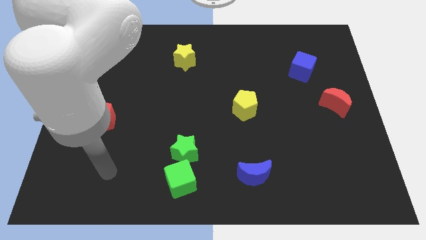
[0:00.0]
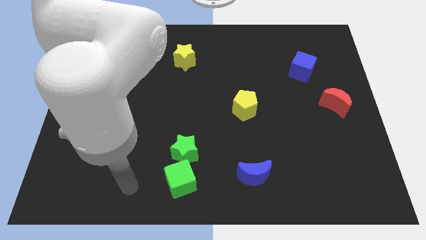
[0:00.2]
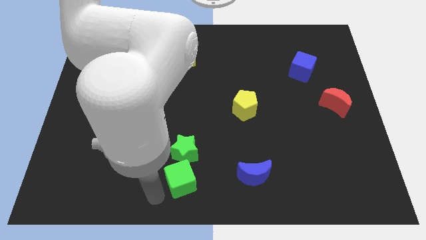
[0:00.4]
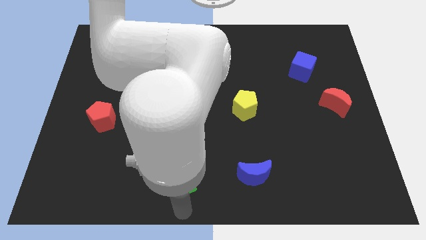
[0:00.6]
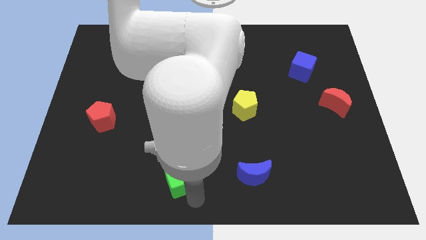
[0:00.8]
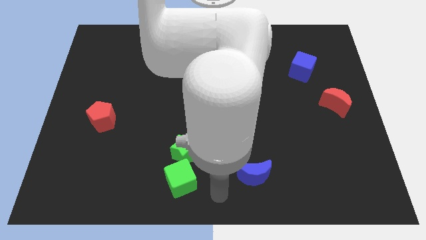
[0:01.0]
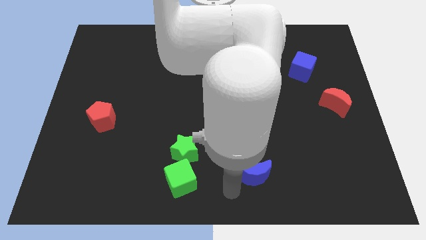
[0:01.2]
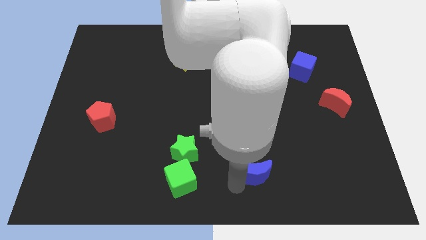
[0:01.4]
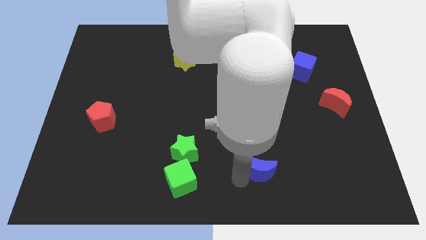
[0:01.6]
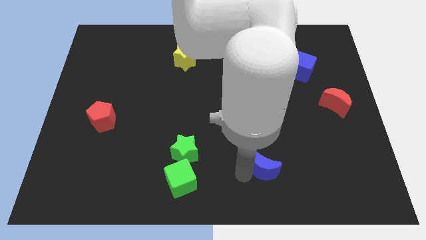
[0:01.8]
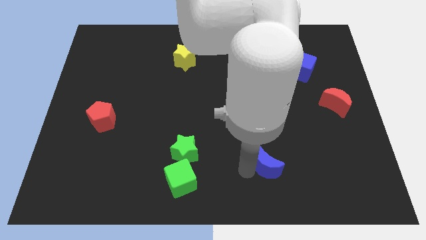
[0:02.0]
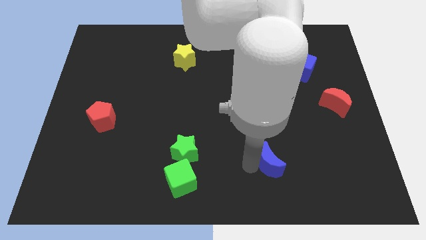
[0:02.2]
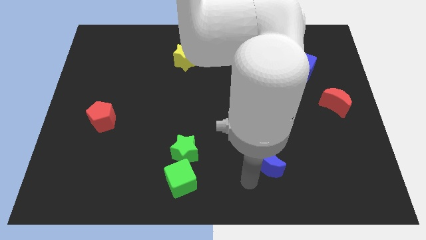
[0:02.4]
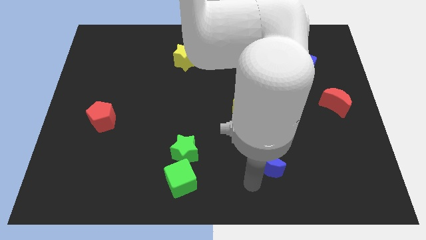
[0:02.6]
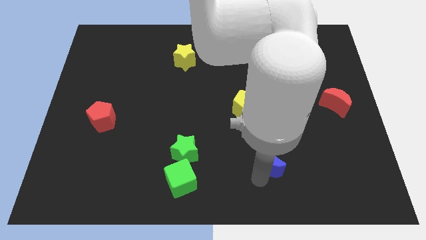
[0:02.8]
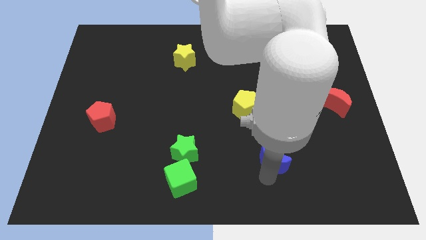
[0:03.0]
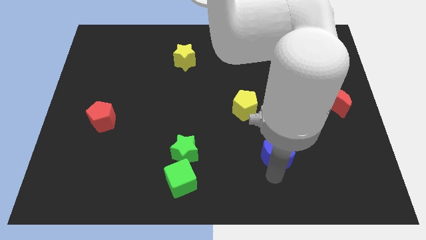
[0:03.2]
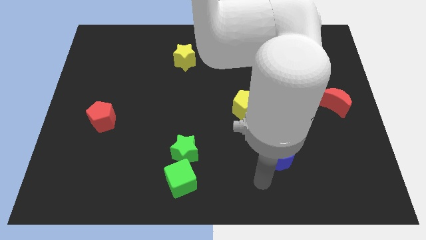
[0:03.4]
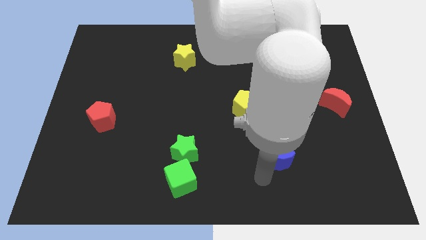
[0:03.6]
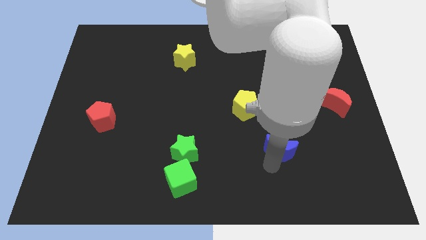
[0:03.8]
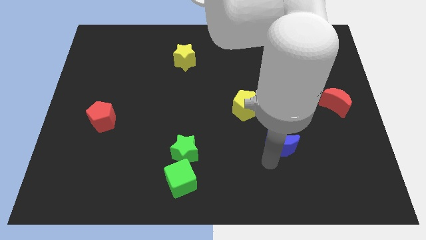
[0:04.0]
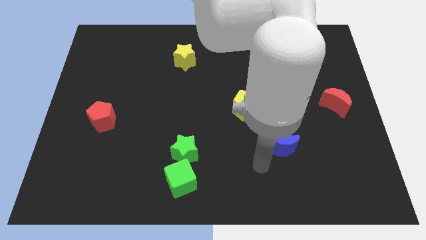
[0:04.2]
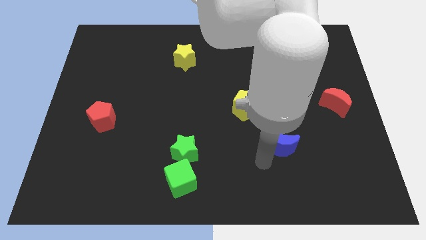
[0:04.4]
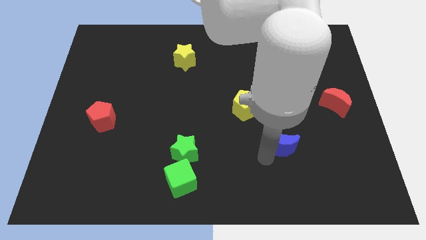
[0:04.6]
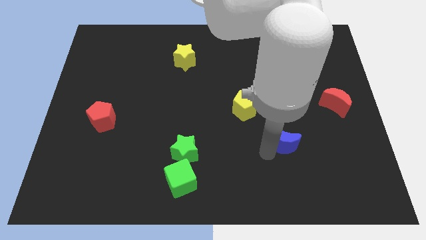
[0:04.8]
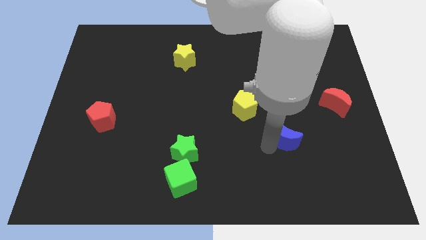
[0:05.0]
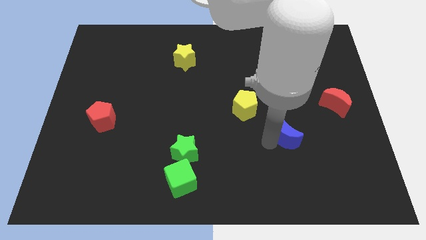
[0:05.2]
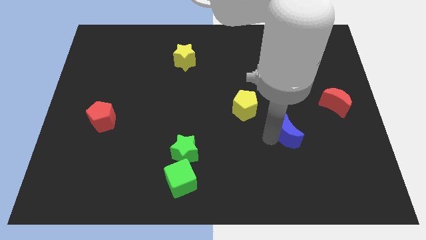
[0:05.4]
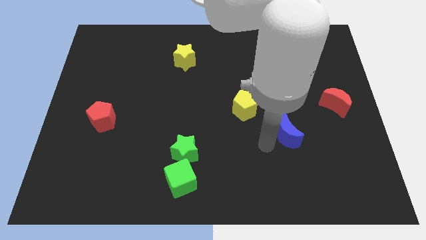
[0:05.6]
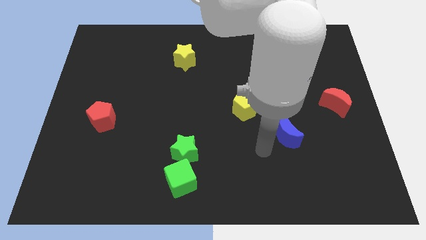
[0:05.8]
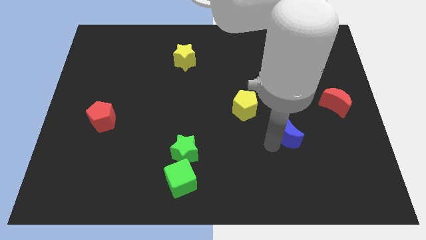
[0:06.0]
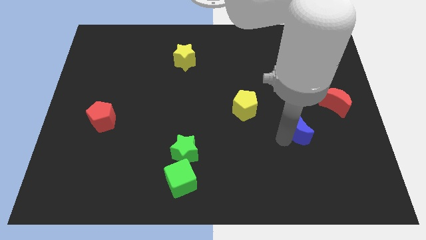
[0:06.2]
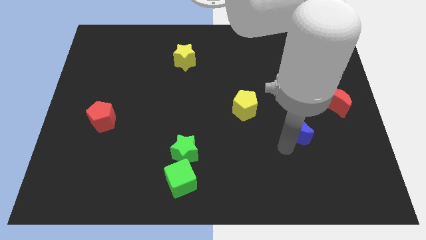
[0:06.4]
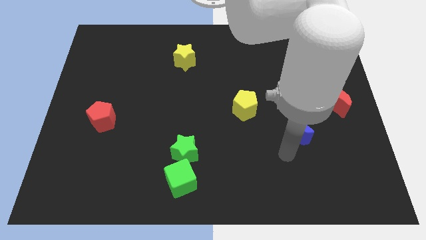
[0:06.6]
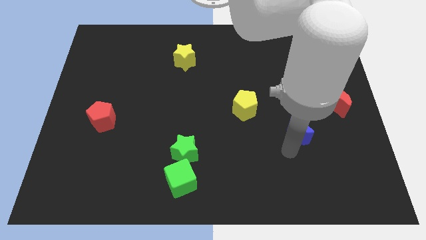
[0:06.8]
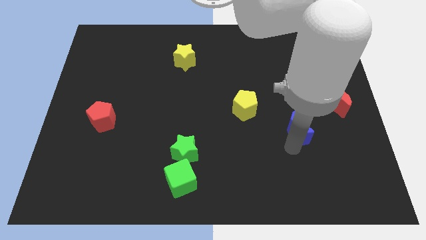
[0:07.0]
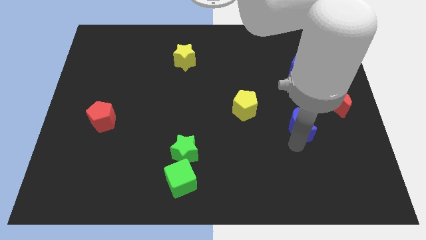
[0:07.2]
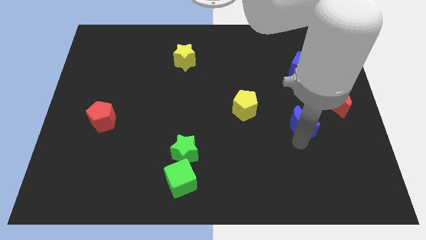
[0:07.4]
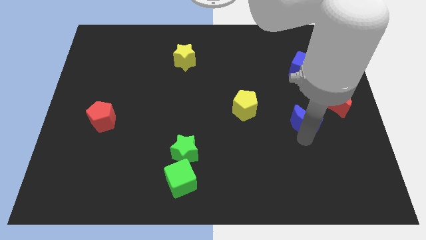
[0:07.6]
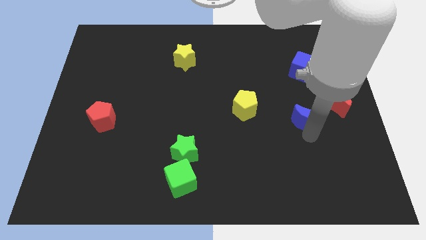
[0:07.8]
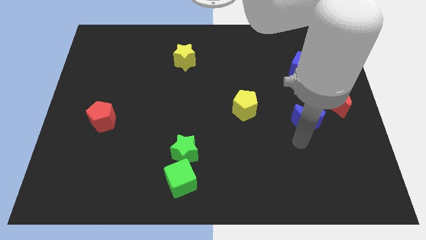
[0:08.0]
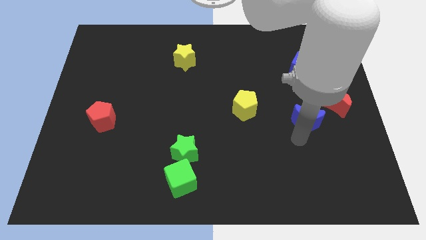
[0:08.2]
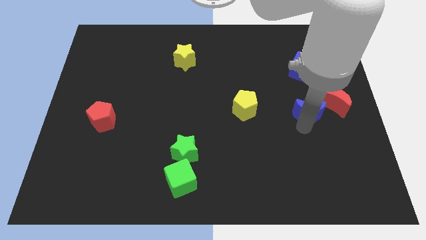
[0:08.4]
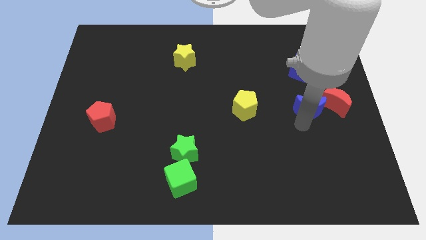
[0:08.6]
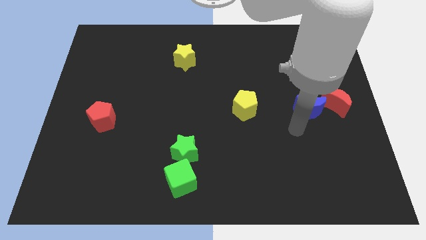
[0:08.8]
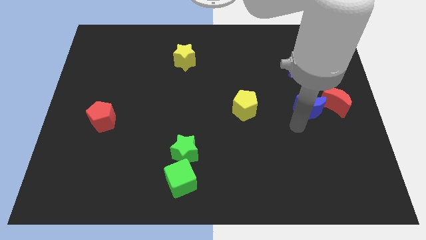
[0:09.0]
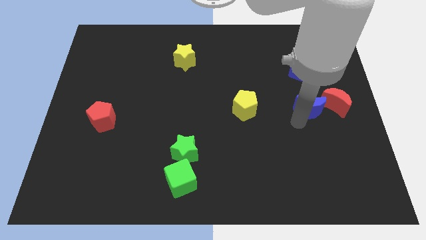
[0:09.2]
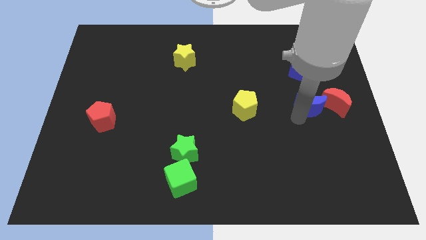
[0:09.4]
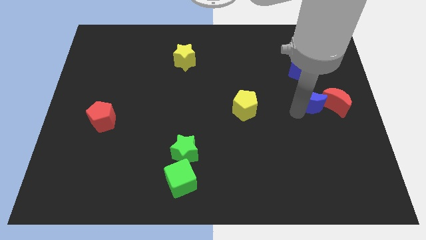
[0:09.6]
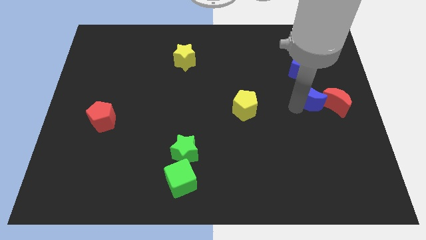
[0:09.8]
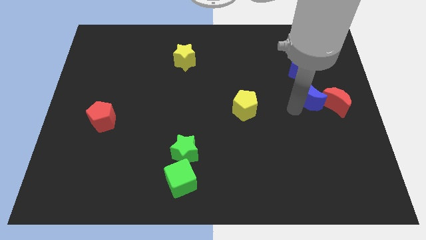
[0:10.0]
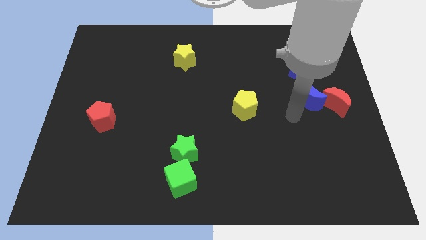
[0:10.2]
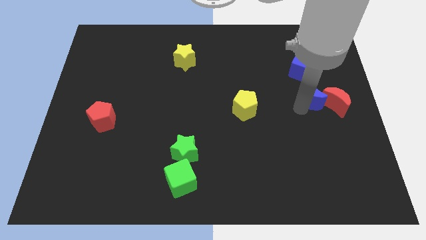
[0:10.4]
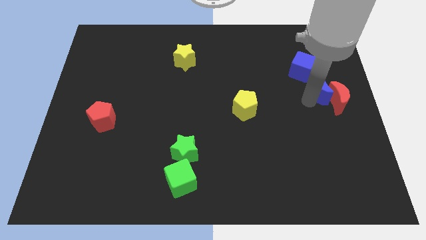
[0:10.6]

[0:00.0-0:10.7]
put the blue moon to the top of the red moon

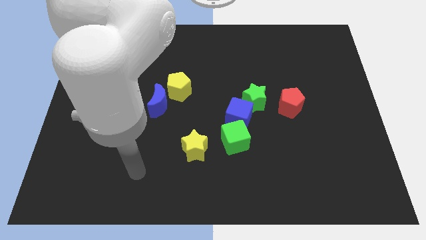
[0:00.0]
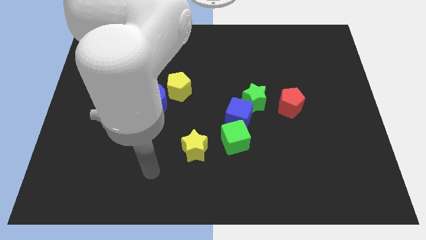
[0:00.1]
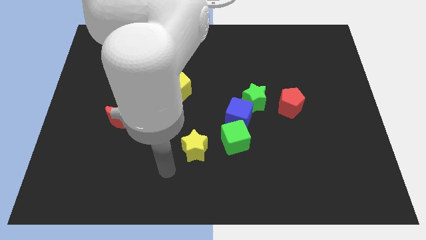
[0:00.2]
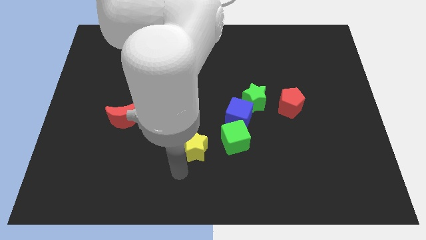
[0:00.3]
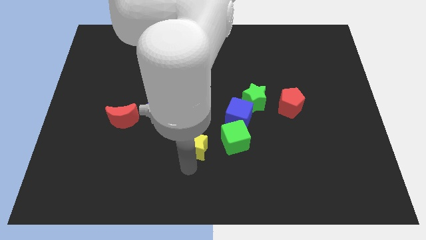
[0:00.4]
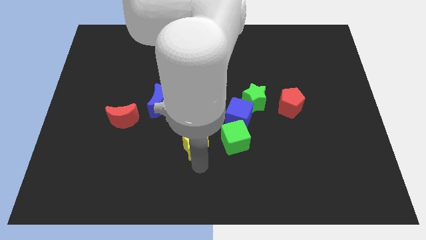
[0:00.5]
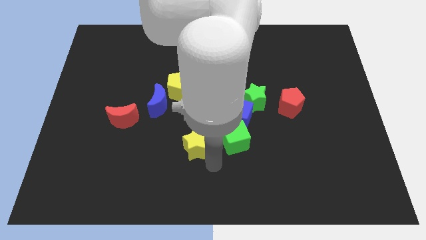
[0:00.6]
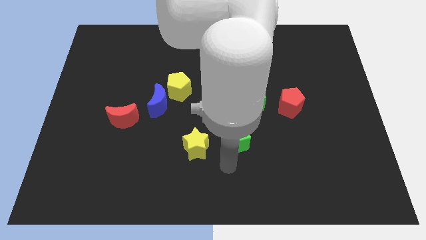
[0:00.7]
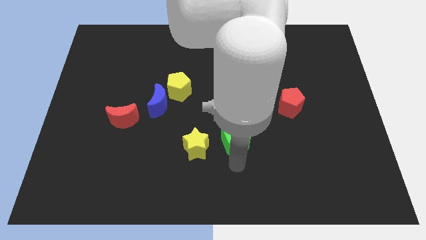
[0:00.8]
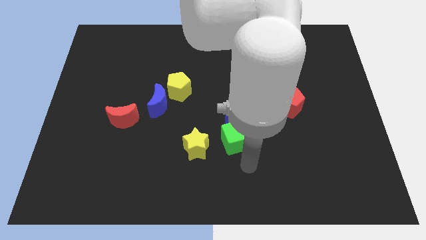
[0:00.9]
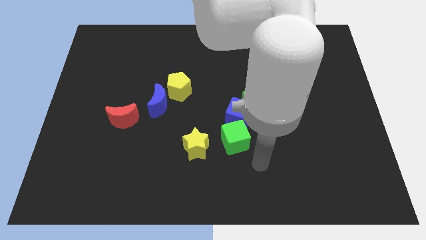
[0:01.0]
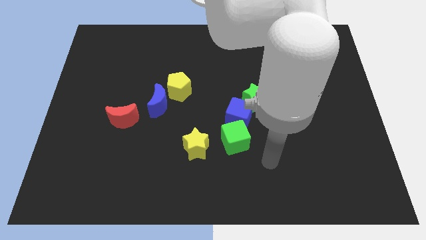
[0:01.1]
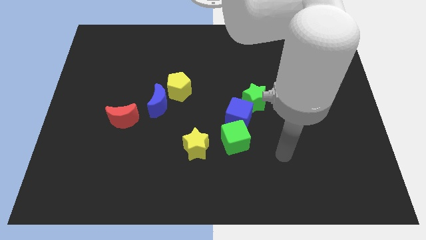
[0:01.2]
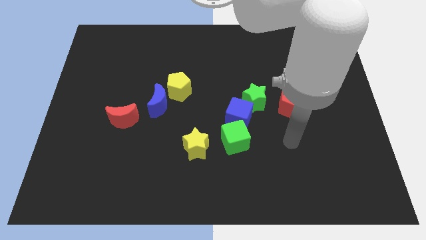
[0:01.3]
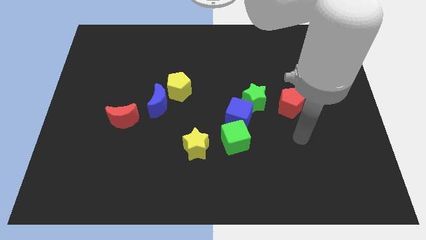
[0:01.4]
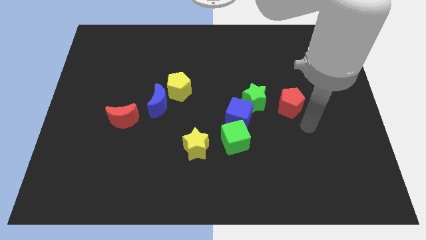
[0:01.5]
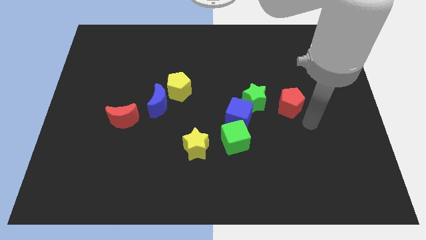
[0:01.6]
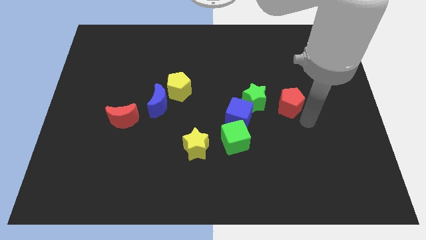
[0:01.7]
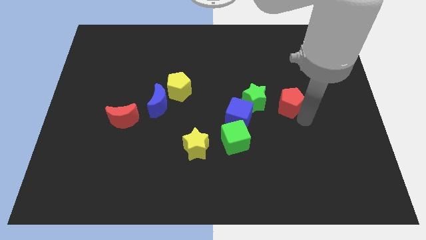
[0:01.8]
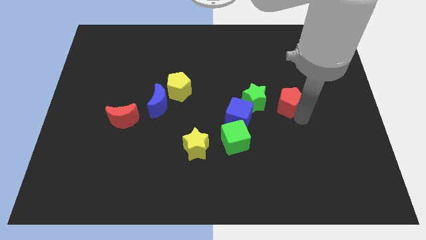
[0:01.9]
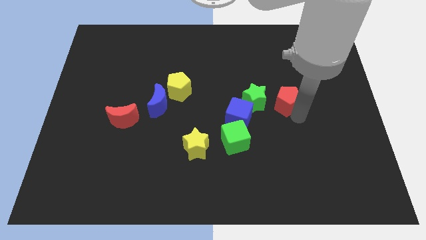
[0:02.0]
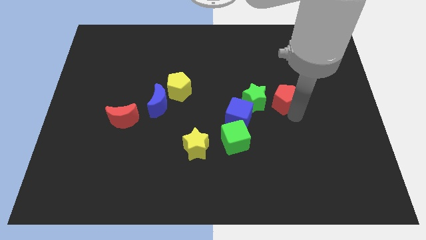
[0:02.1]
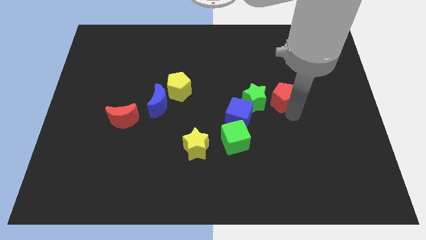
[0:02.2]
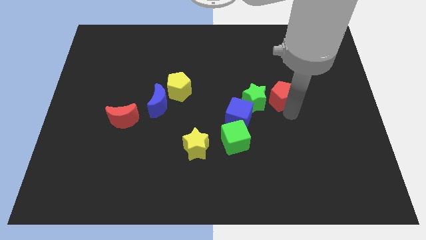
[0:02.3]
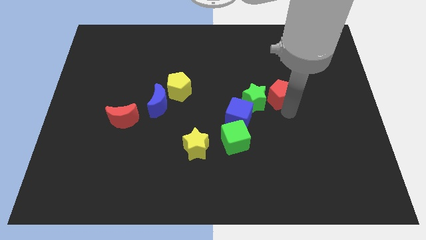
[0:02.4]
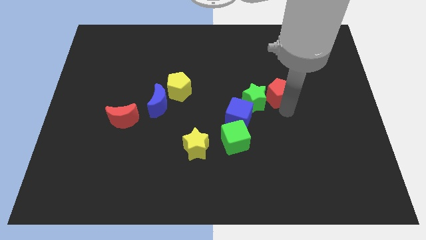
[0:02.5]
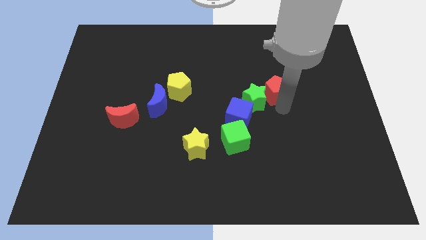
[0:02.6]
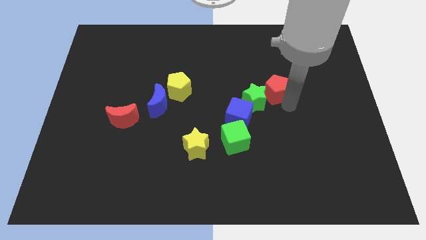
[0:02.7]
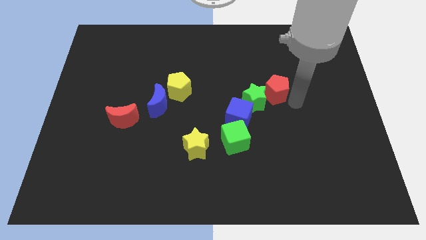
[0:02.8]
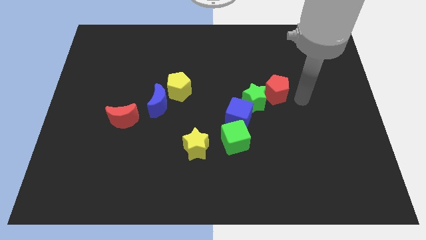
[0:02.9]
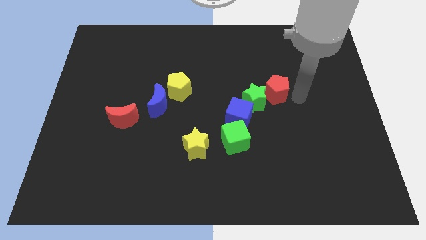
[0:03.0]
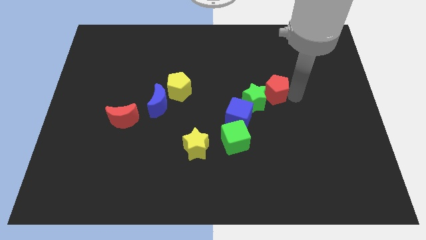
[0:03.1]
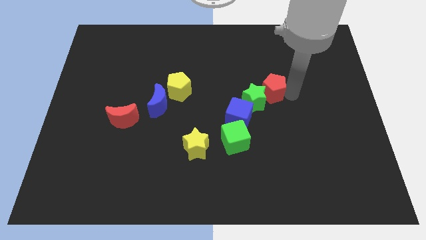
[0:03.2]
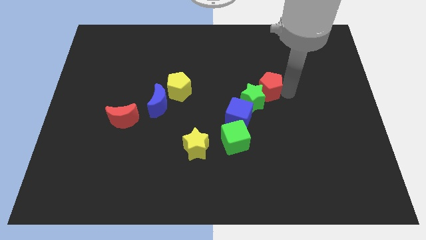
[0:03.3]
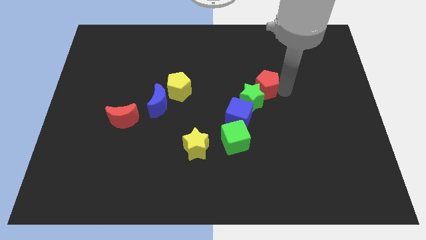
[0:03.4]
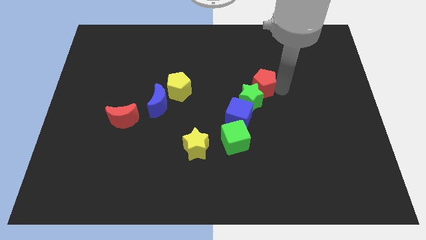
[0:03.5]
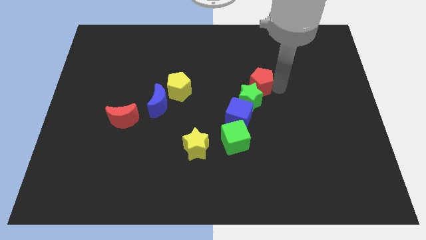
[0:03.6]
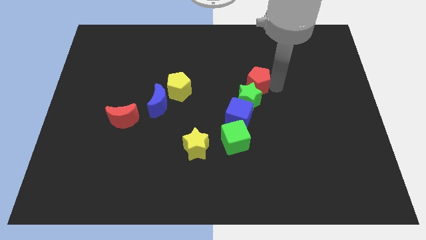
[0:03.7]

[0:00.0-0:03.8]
move the red pentagon above the blue cube
